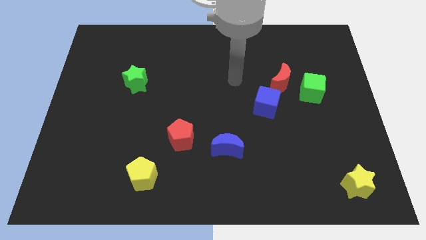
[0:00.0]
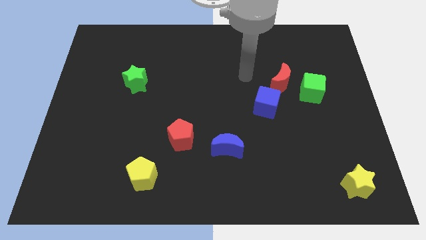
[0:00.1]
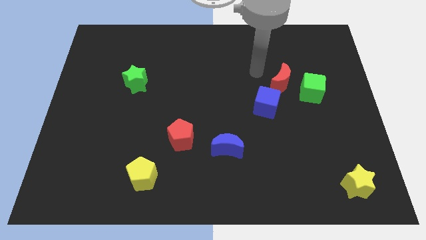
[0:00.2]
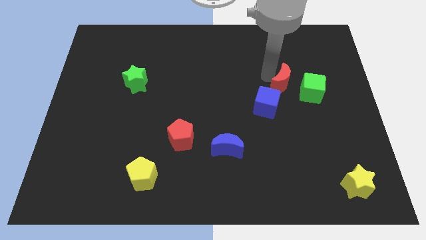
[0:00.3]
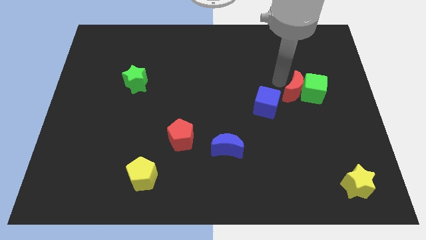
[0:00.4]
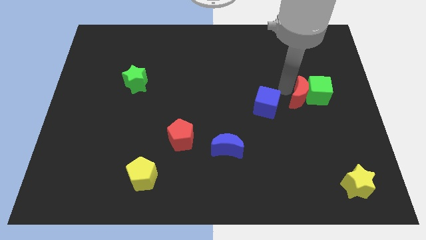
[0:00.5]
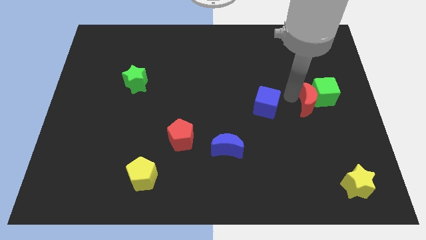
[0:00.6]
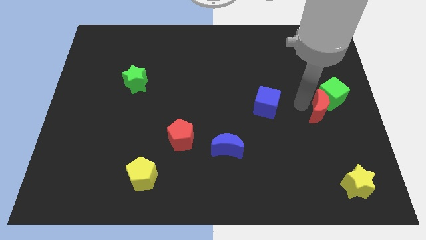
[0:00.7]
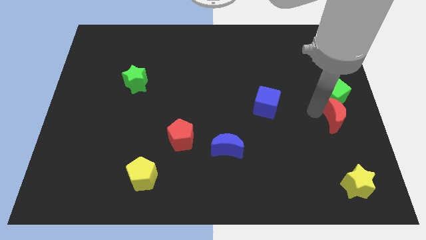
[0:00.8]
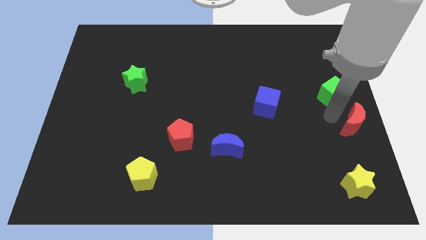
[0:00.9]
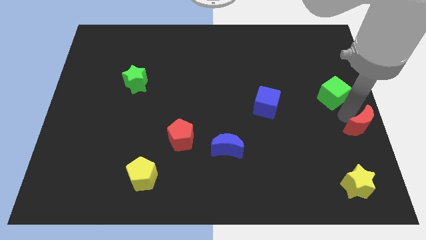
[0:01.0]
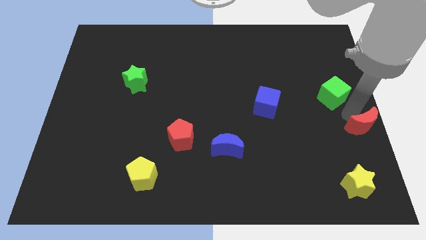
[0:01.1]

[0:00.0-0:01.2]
pull the green cube apart from the red moon

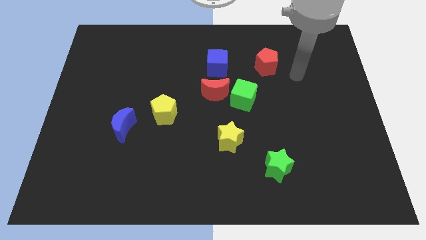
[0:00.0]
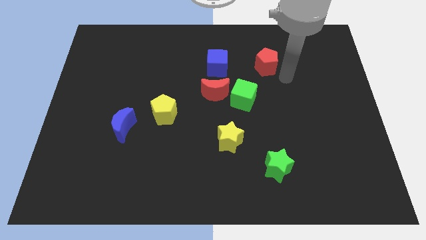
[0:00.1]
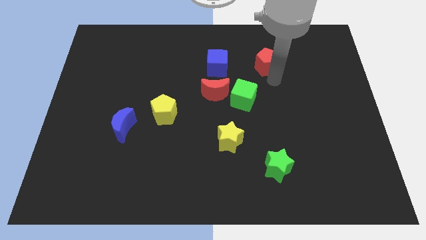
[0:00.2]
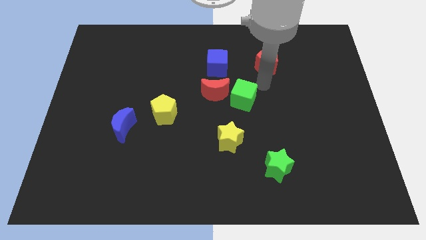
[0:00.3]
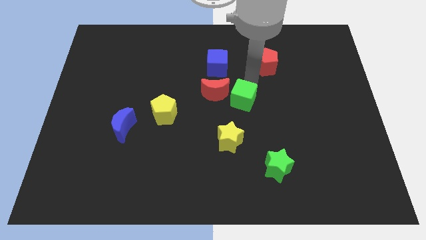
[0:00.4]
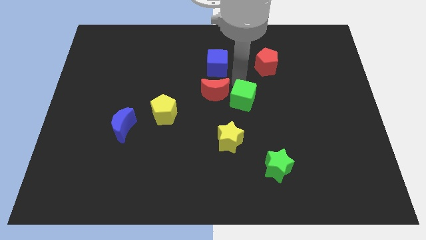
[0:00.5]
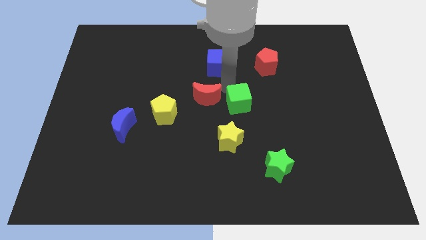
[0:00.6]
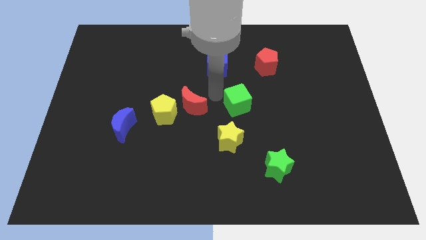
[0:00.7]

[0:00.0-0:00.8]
separate the green cube from the red moon

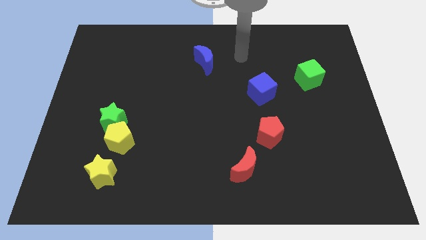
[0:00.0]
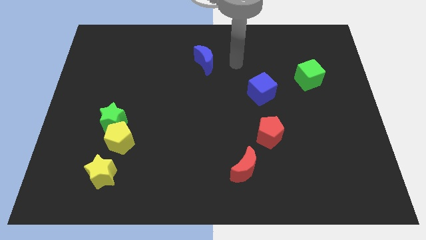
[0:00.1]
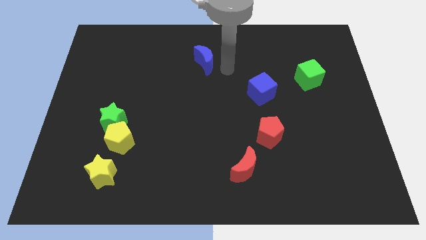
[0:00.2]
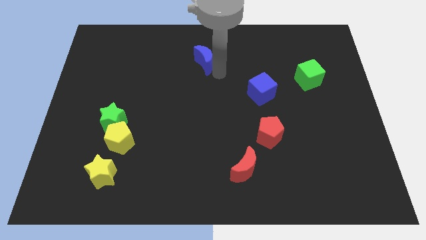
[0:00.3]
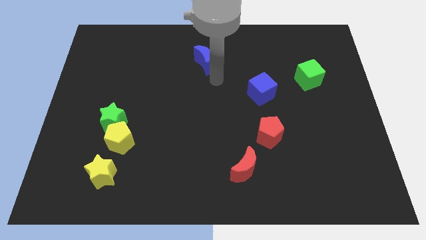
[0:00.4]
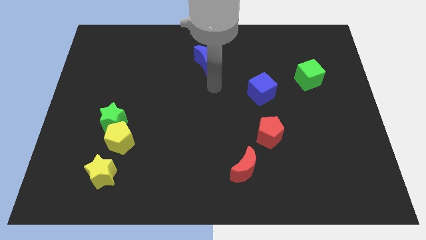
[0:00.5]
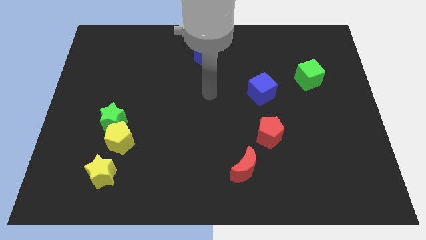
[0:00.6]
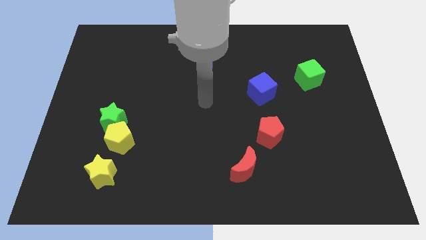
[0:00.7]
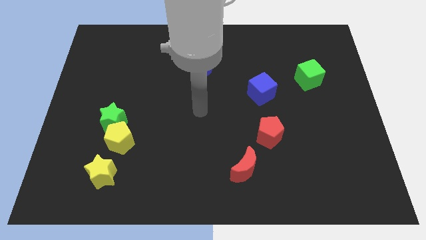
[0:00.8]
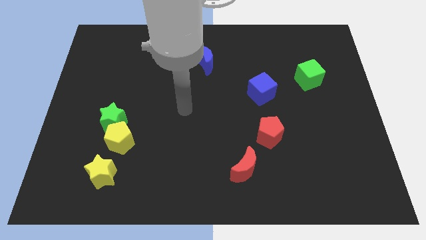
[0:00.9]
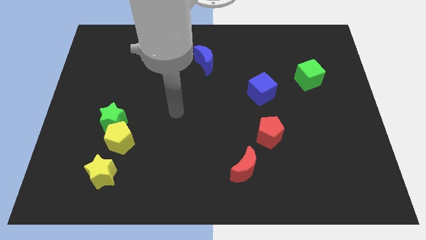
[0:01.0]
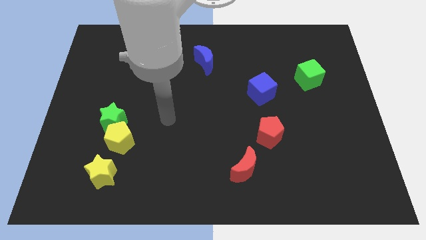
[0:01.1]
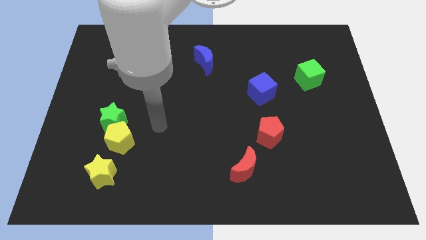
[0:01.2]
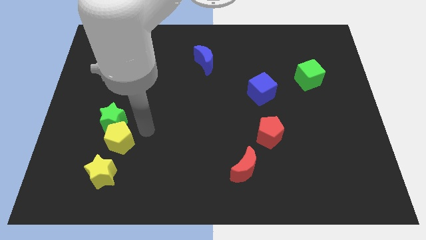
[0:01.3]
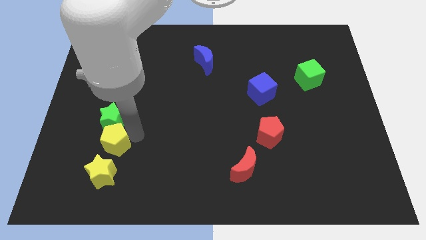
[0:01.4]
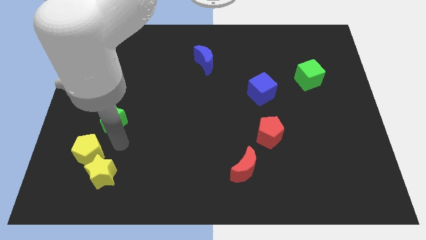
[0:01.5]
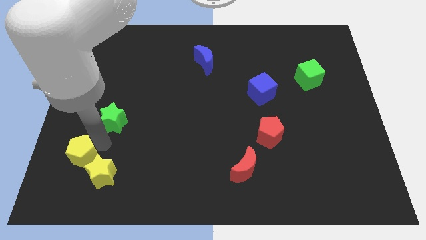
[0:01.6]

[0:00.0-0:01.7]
separate the green star from the yellow pentagon

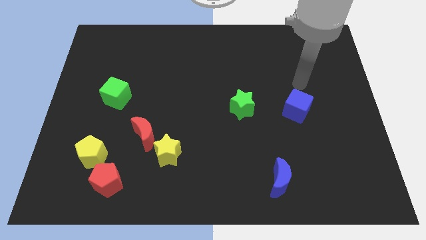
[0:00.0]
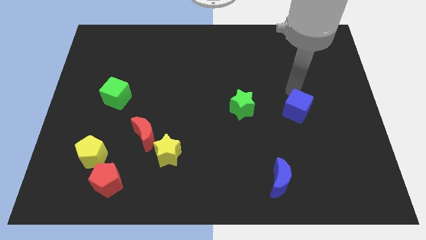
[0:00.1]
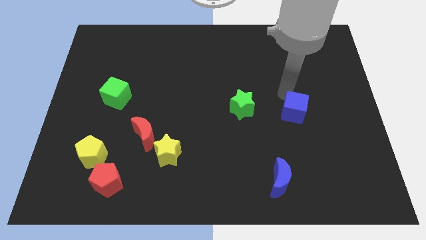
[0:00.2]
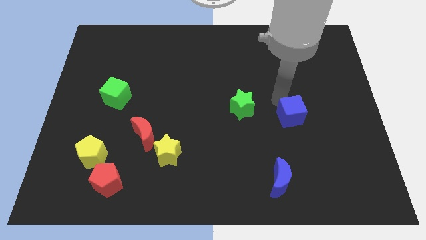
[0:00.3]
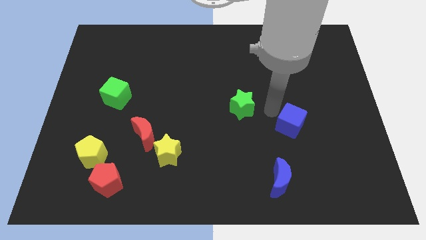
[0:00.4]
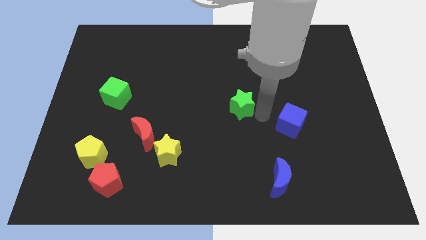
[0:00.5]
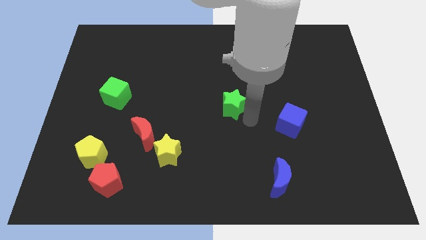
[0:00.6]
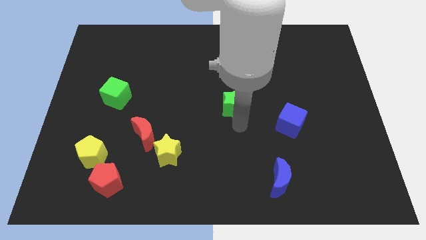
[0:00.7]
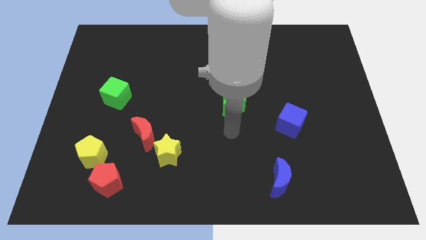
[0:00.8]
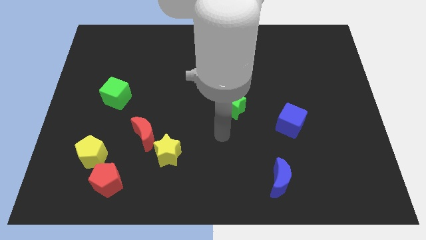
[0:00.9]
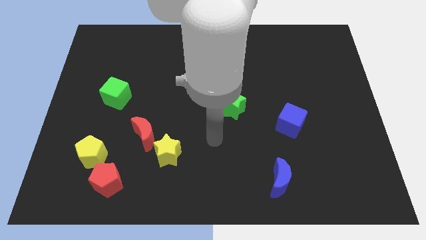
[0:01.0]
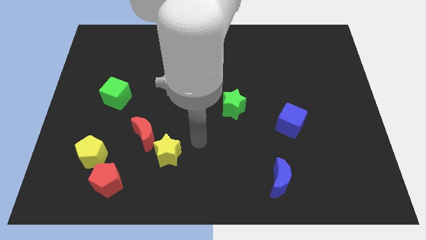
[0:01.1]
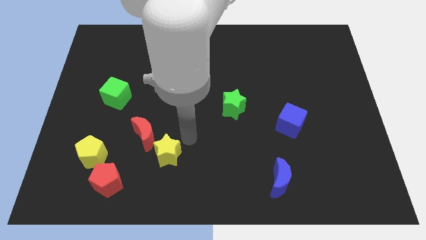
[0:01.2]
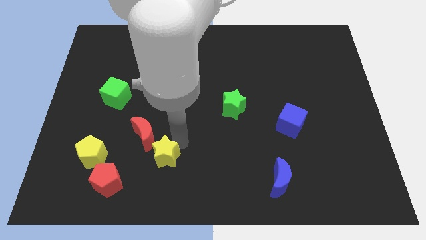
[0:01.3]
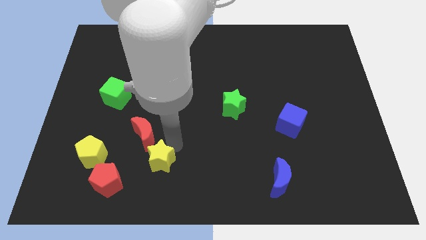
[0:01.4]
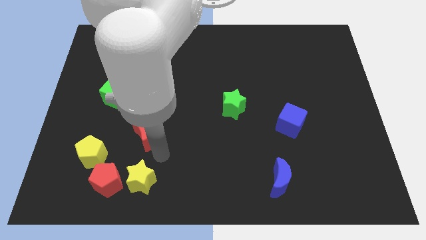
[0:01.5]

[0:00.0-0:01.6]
pull the red moon apart from the yellow star

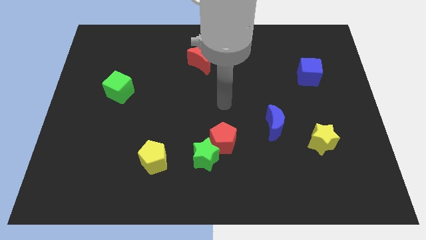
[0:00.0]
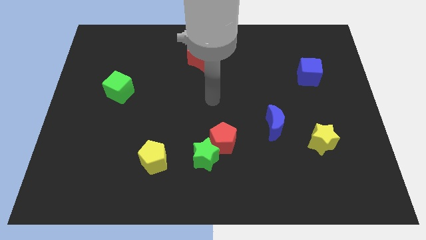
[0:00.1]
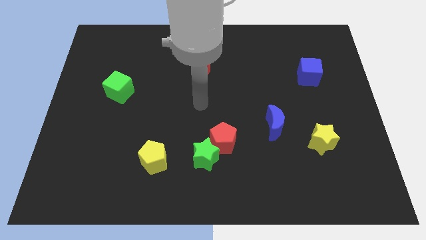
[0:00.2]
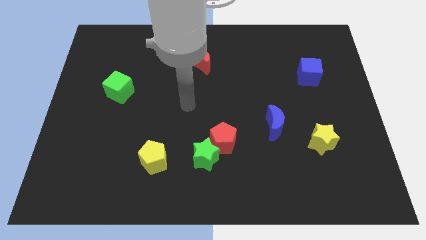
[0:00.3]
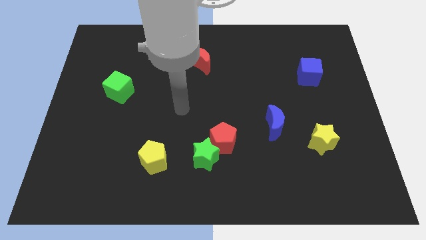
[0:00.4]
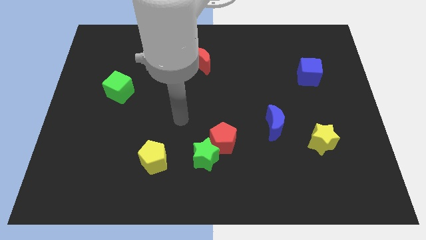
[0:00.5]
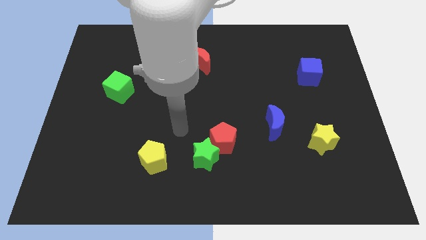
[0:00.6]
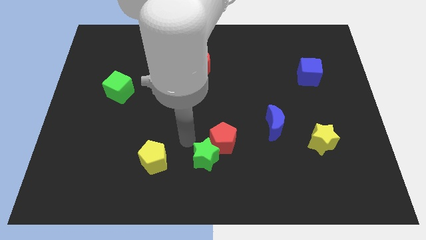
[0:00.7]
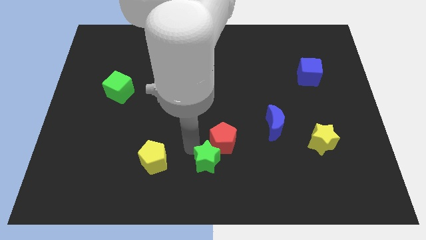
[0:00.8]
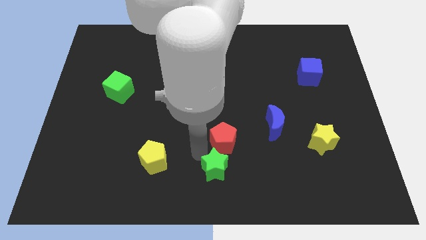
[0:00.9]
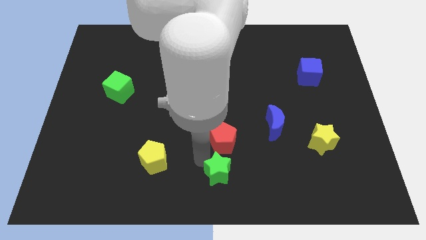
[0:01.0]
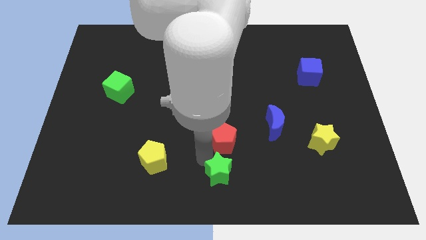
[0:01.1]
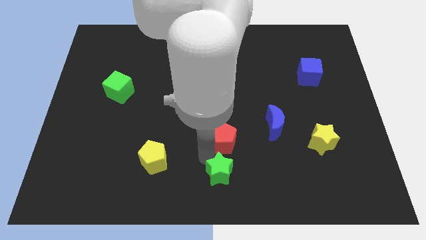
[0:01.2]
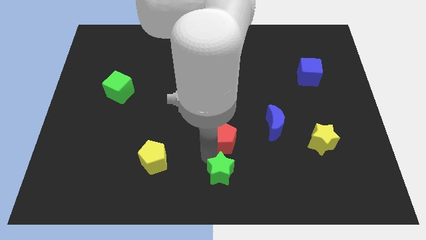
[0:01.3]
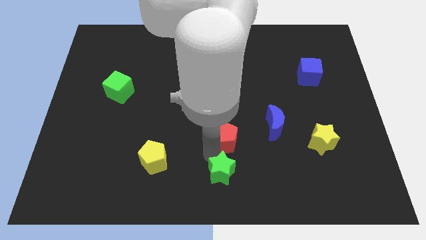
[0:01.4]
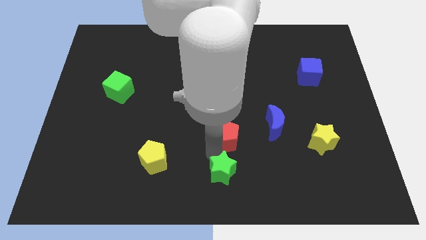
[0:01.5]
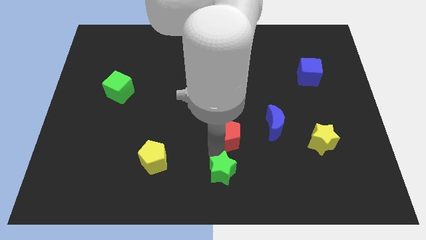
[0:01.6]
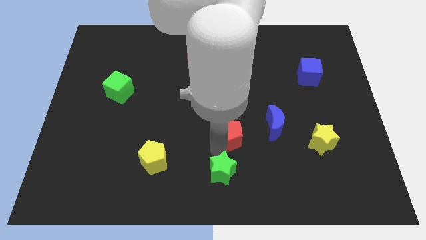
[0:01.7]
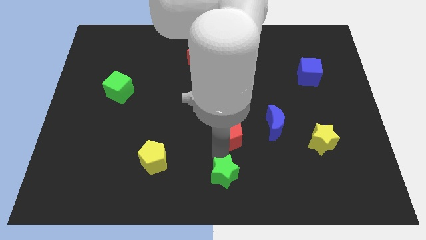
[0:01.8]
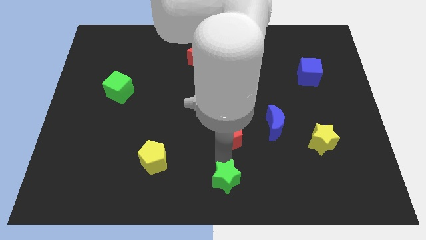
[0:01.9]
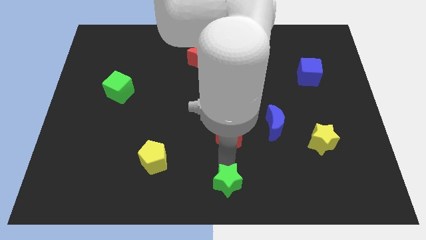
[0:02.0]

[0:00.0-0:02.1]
pull the red pentagon apart from the green star

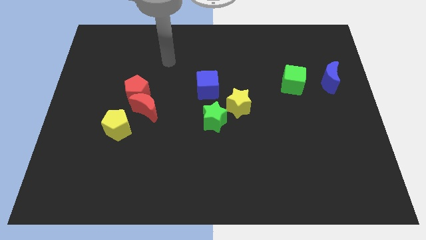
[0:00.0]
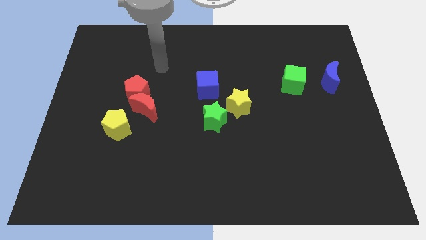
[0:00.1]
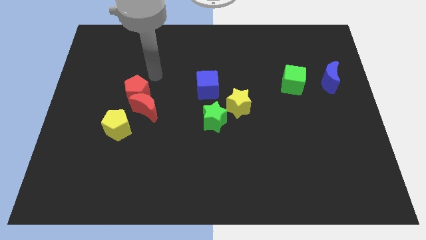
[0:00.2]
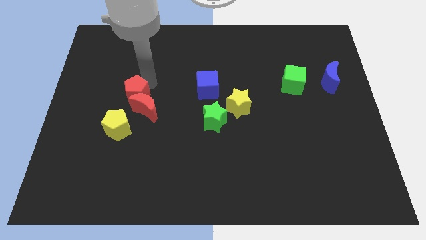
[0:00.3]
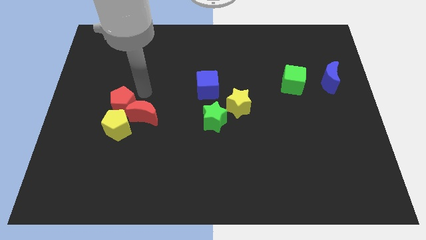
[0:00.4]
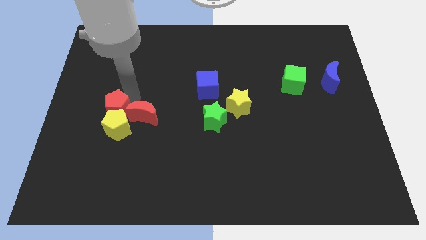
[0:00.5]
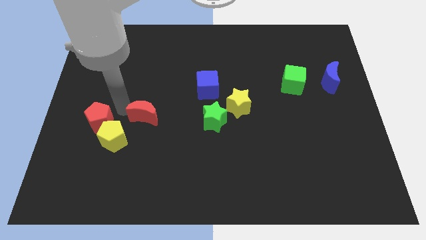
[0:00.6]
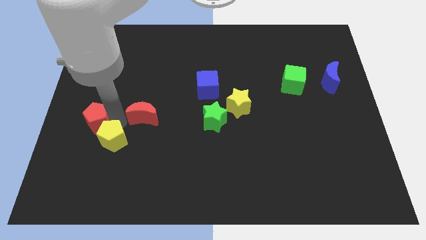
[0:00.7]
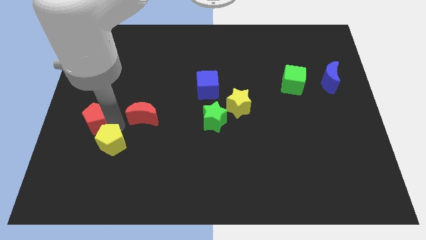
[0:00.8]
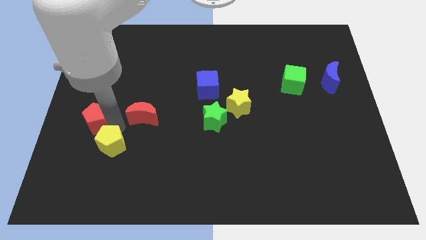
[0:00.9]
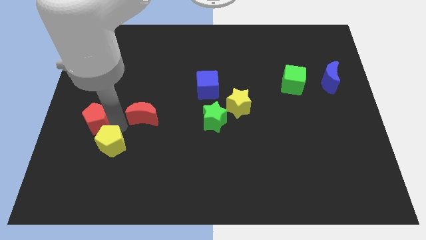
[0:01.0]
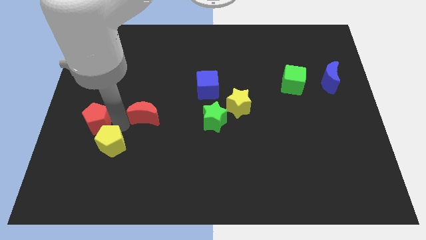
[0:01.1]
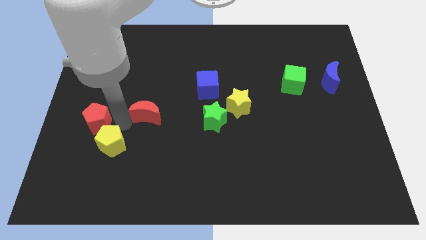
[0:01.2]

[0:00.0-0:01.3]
separate the red moon from the red pentagon and yellow pentagon

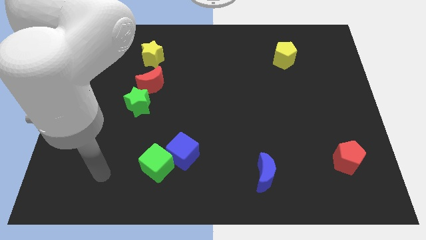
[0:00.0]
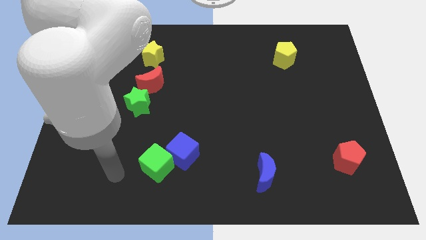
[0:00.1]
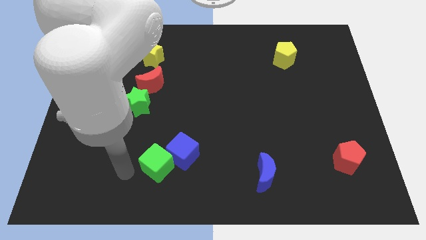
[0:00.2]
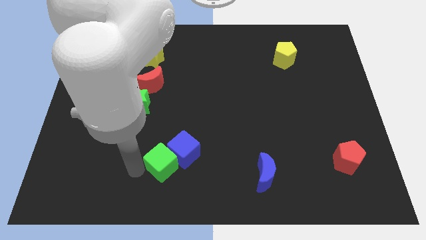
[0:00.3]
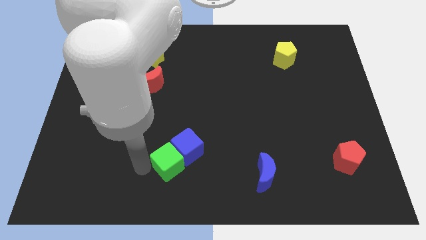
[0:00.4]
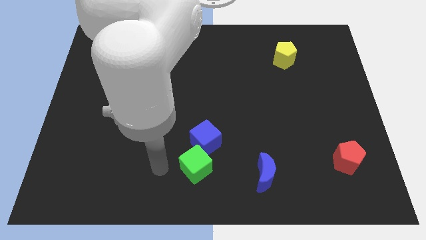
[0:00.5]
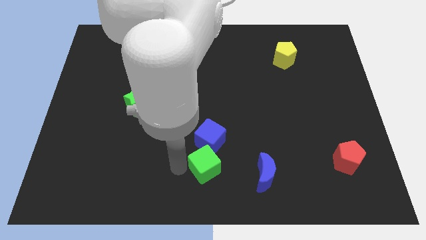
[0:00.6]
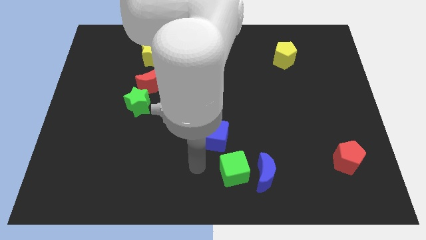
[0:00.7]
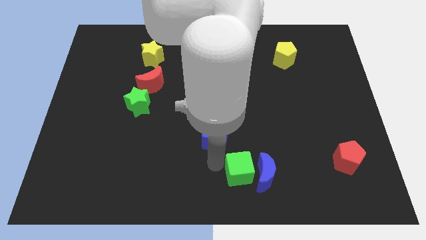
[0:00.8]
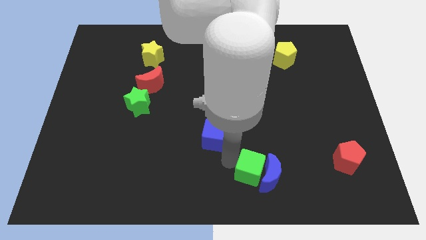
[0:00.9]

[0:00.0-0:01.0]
pull the blue cube apart from the green cube
